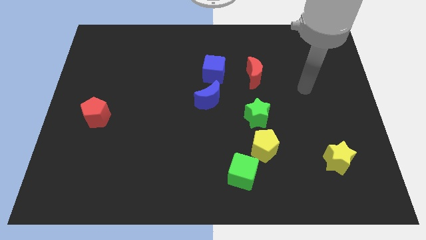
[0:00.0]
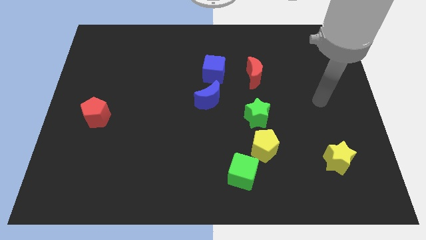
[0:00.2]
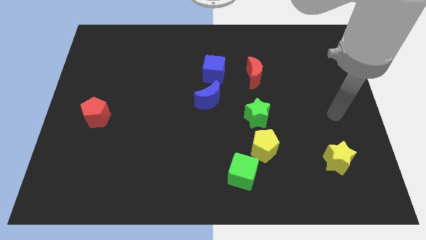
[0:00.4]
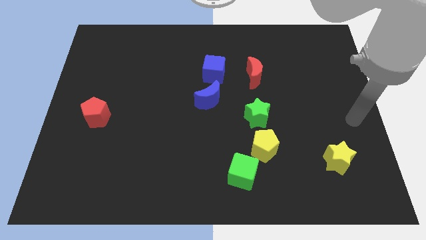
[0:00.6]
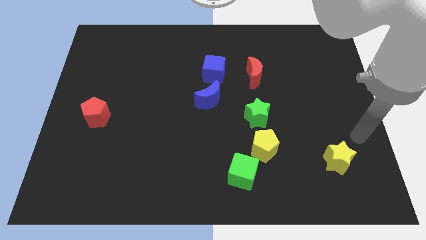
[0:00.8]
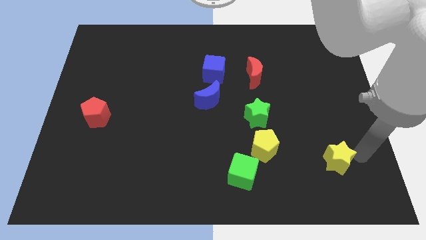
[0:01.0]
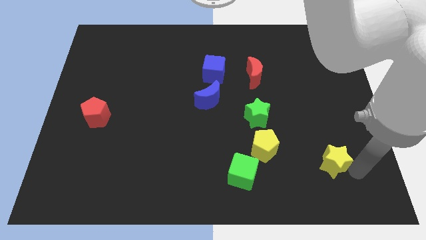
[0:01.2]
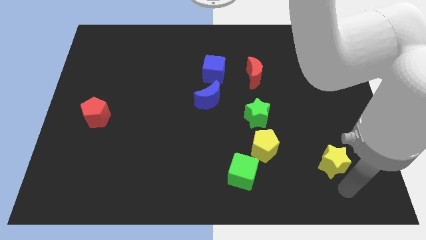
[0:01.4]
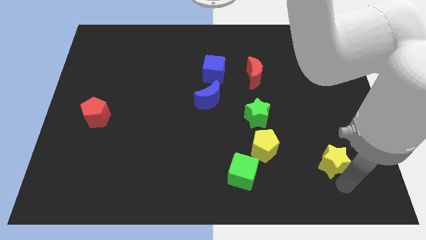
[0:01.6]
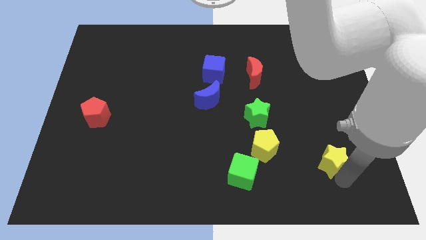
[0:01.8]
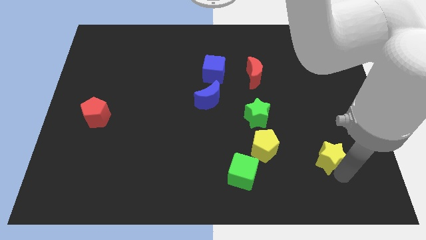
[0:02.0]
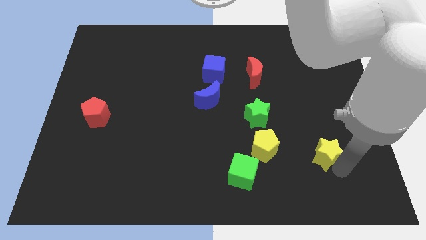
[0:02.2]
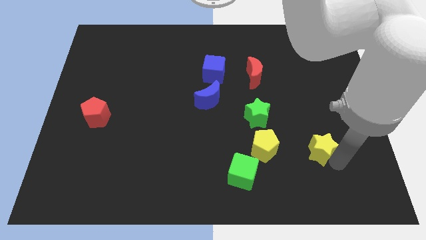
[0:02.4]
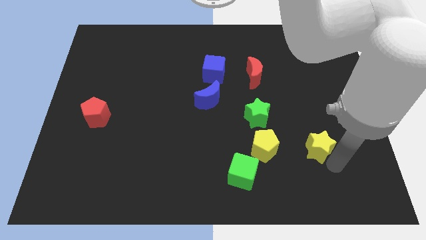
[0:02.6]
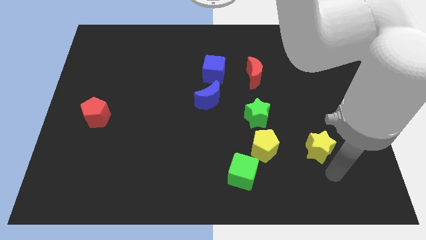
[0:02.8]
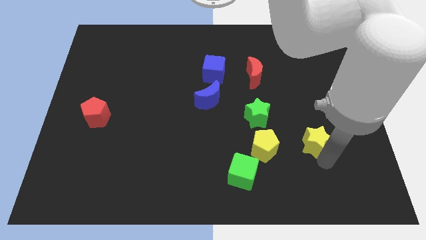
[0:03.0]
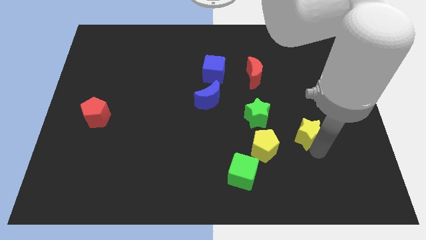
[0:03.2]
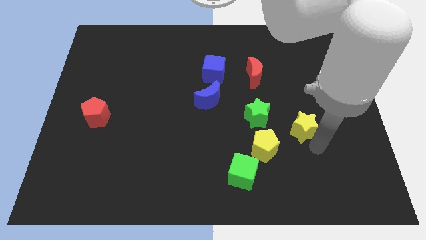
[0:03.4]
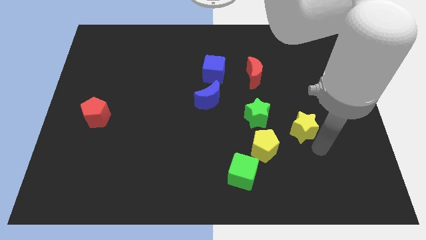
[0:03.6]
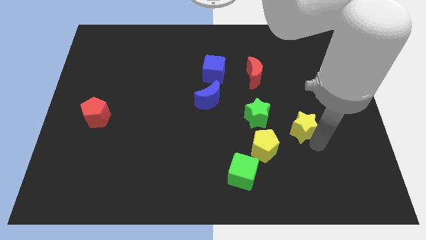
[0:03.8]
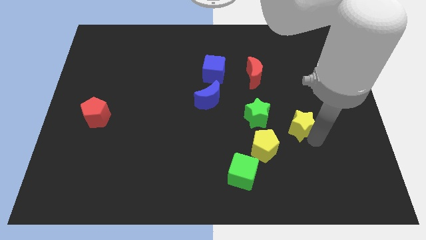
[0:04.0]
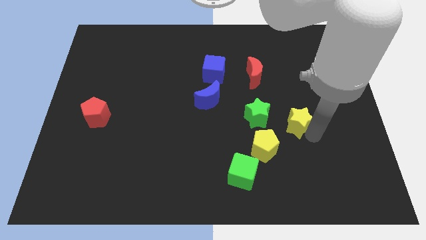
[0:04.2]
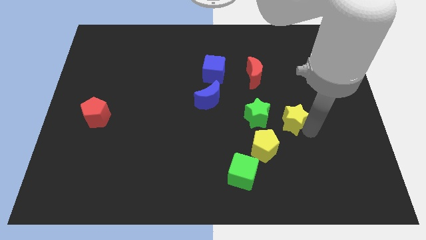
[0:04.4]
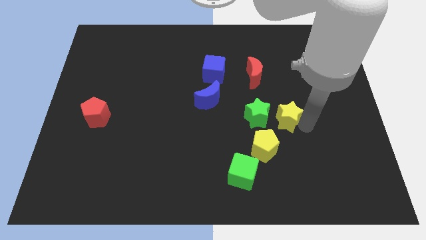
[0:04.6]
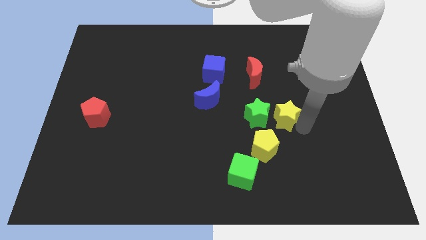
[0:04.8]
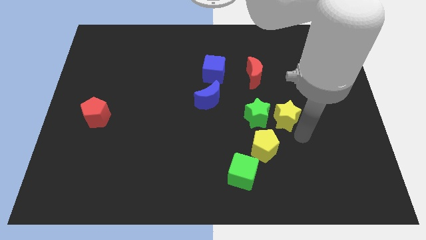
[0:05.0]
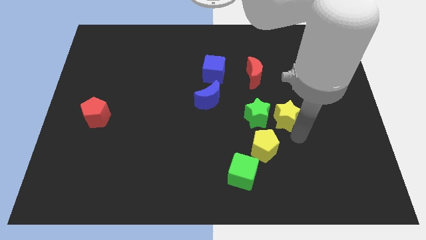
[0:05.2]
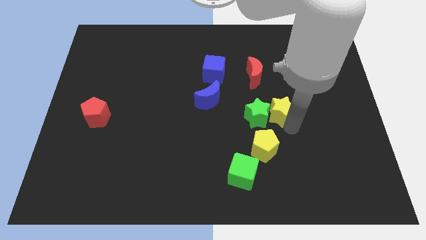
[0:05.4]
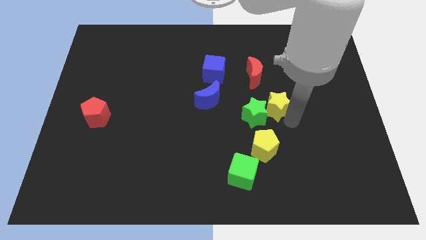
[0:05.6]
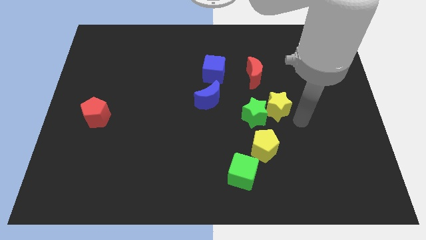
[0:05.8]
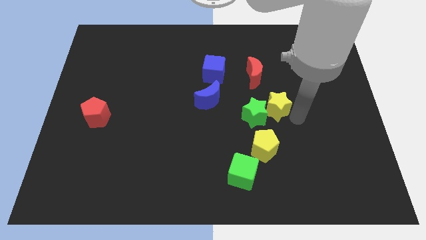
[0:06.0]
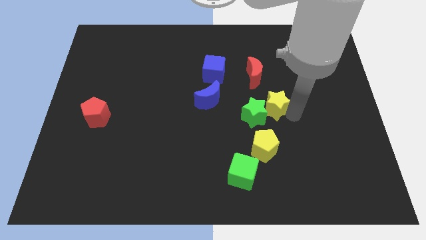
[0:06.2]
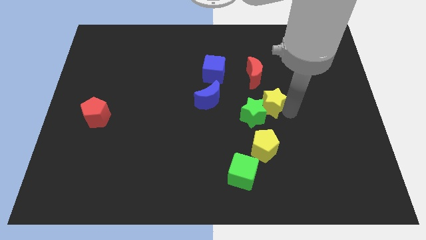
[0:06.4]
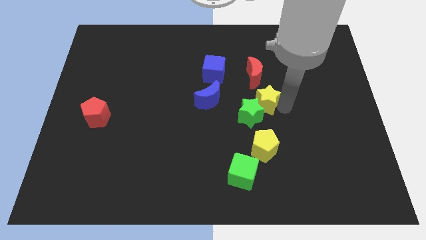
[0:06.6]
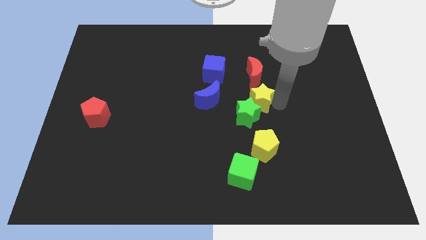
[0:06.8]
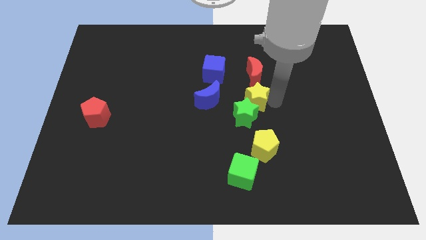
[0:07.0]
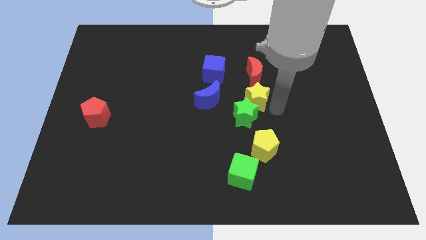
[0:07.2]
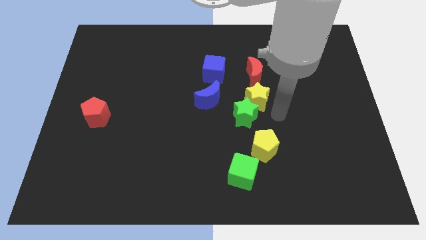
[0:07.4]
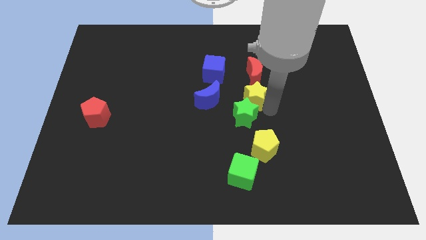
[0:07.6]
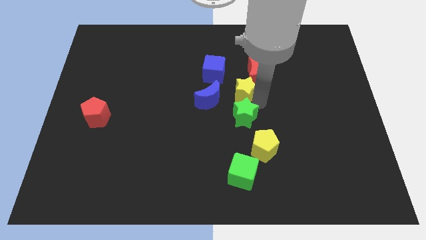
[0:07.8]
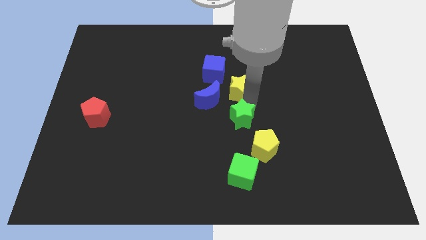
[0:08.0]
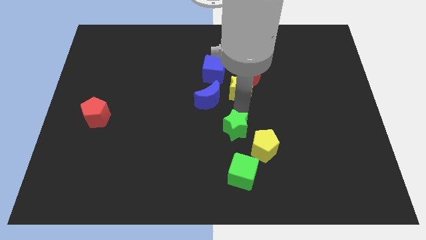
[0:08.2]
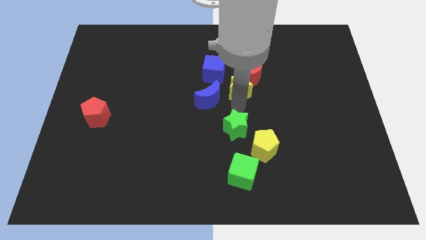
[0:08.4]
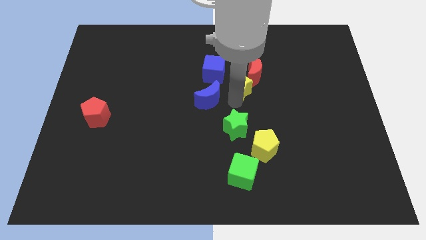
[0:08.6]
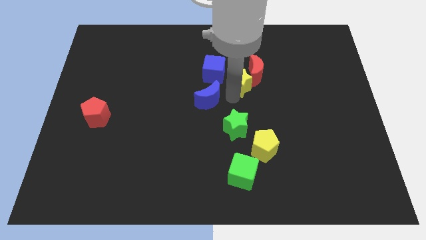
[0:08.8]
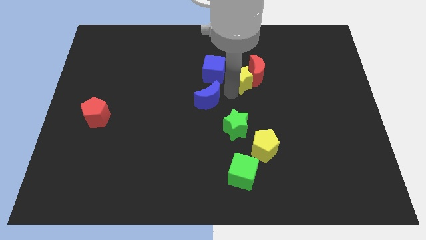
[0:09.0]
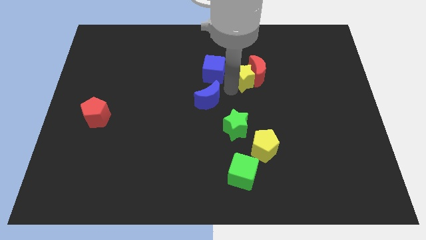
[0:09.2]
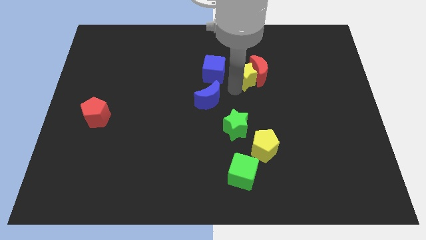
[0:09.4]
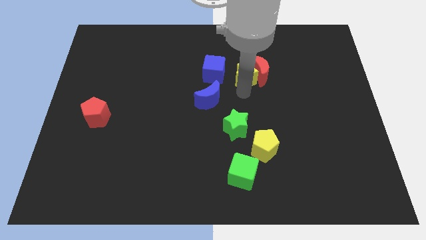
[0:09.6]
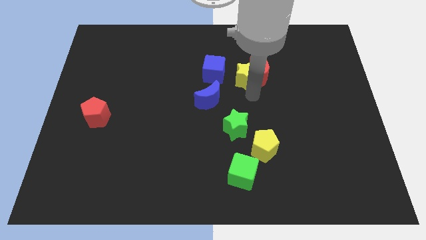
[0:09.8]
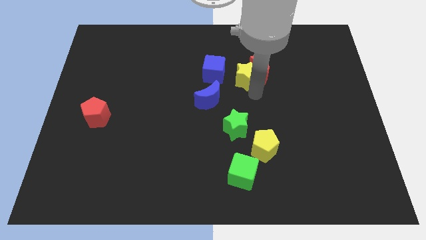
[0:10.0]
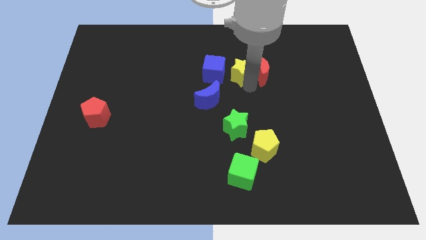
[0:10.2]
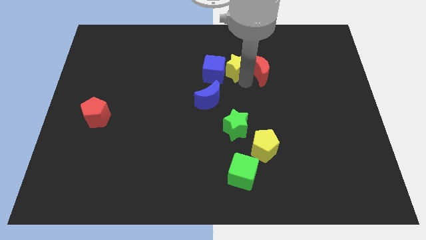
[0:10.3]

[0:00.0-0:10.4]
move the yellow star to the top right of the blue cube

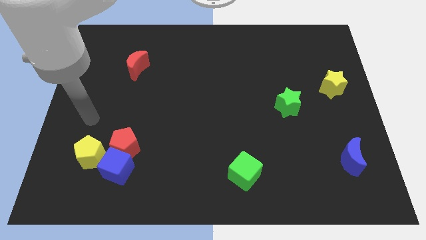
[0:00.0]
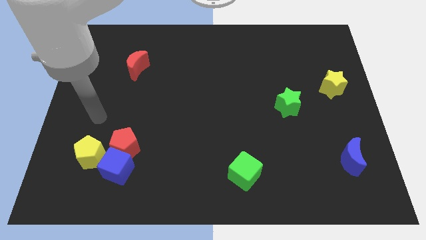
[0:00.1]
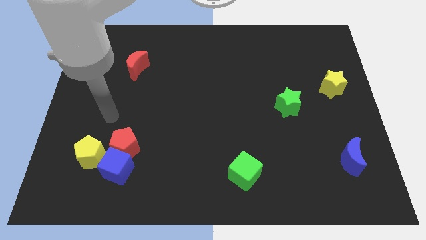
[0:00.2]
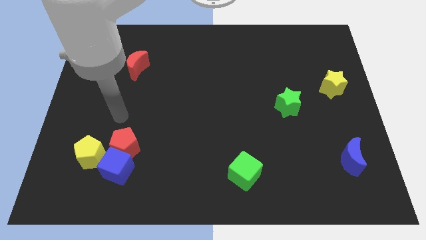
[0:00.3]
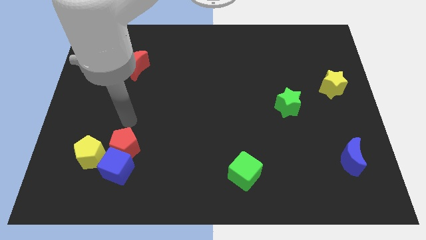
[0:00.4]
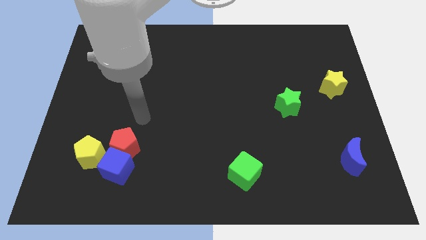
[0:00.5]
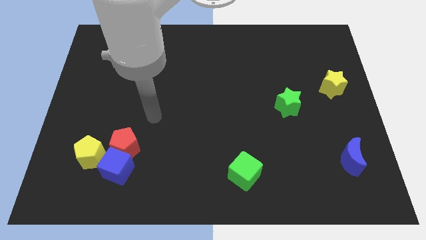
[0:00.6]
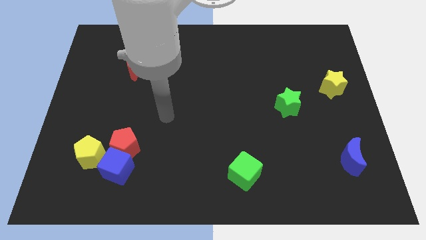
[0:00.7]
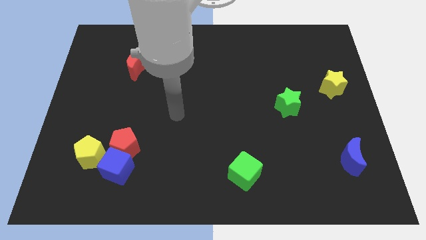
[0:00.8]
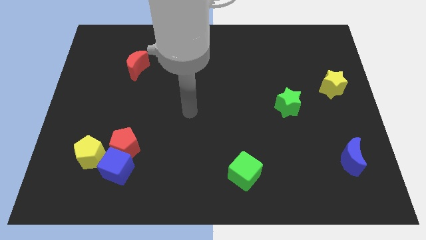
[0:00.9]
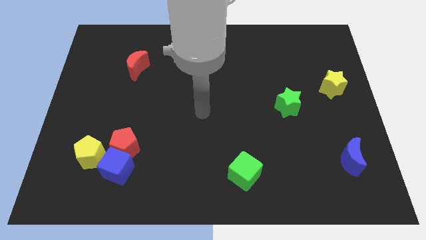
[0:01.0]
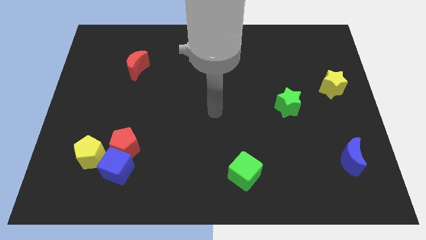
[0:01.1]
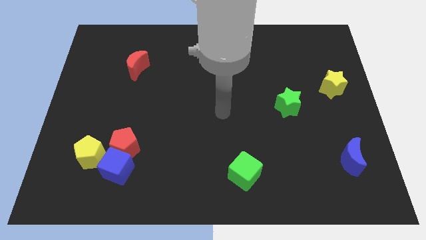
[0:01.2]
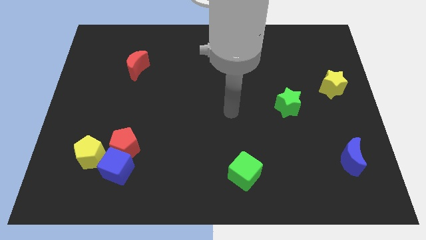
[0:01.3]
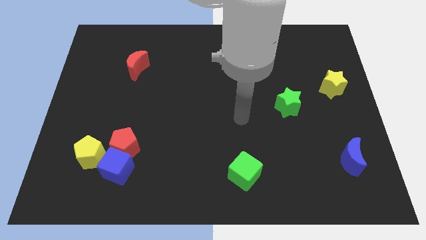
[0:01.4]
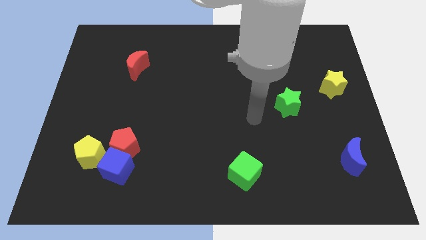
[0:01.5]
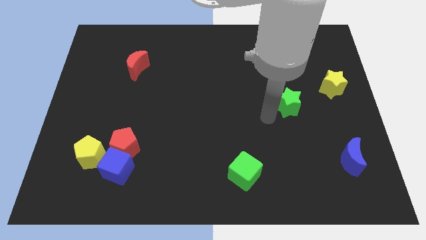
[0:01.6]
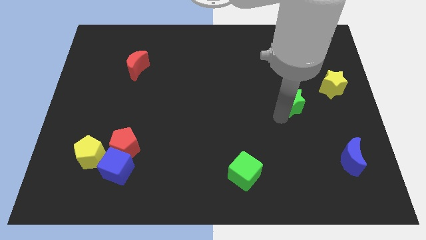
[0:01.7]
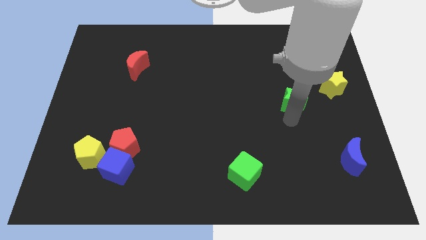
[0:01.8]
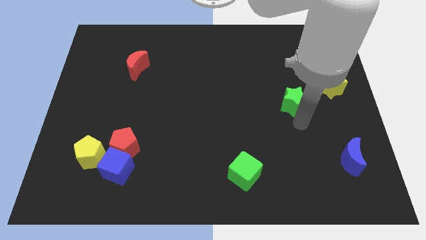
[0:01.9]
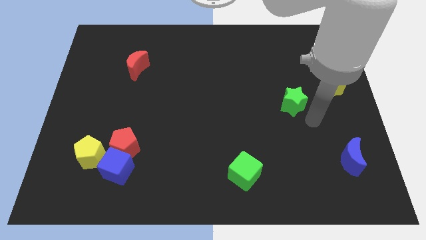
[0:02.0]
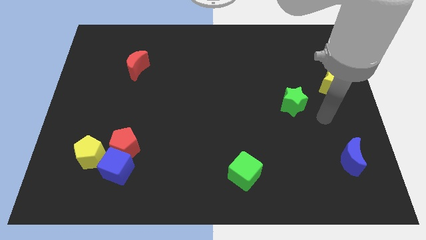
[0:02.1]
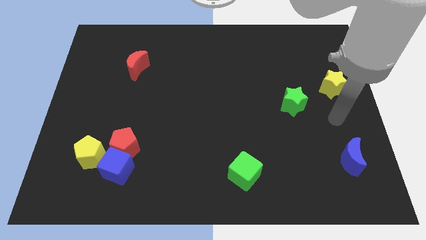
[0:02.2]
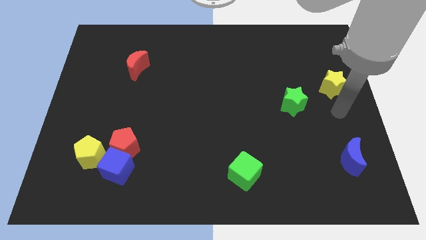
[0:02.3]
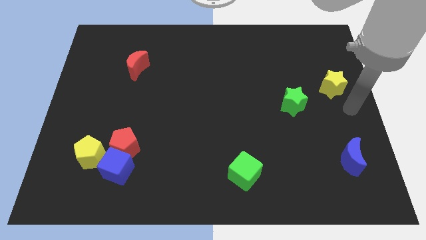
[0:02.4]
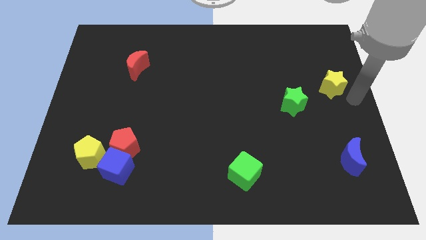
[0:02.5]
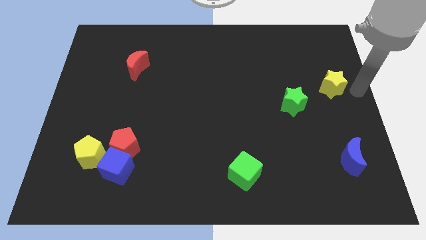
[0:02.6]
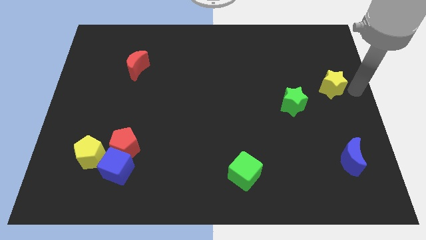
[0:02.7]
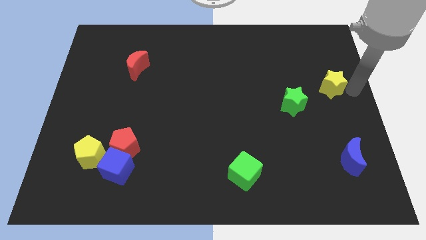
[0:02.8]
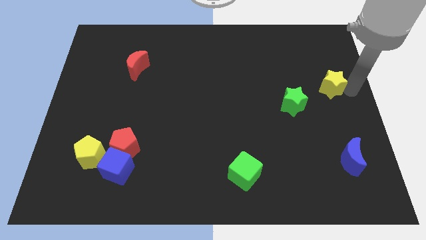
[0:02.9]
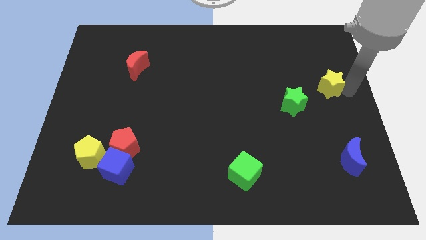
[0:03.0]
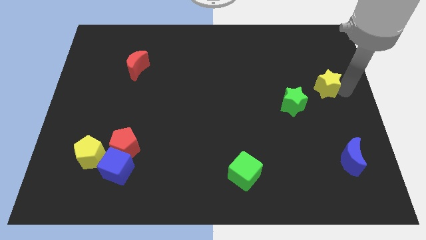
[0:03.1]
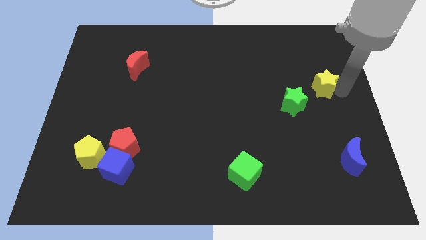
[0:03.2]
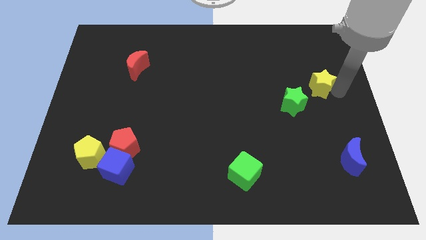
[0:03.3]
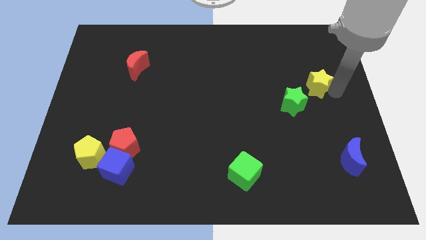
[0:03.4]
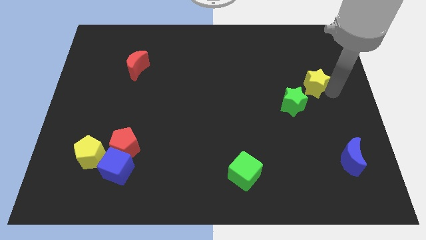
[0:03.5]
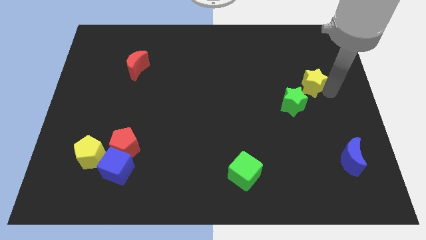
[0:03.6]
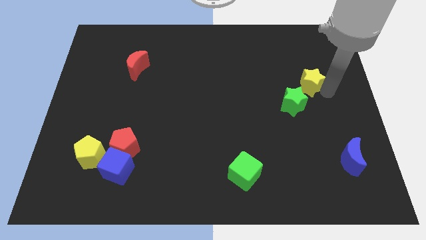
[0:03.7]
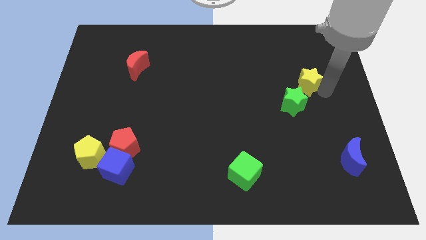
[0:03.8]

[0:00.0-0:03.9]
slide the yellow star to the top side of the green star
